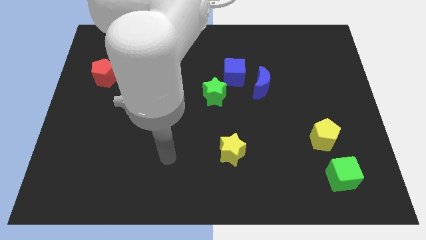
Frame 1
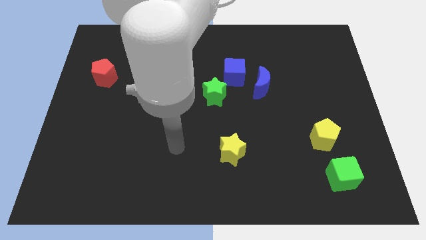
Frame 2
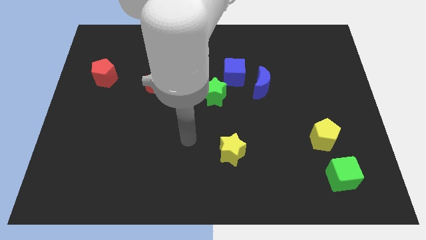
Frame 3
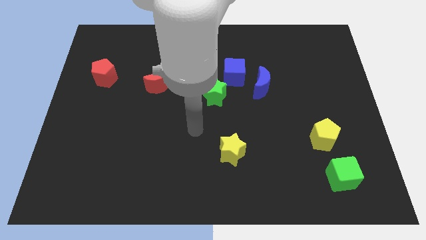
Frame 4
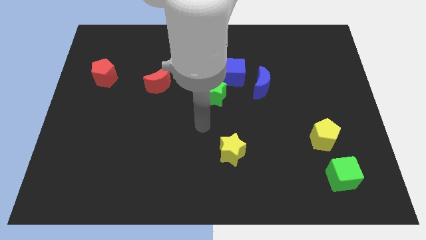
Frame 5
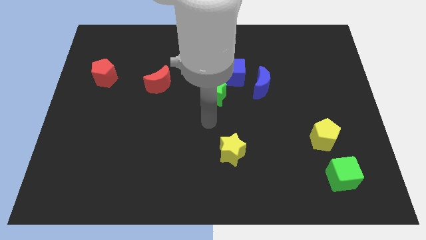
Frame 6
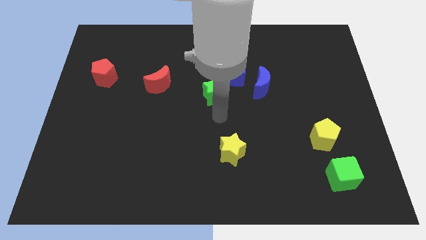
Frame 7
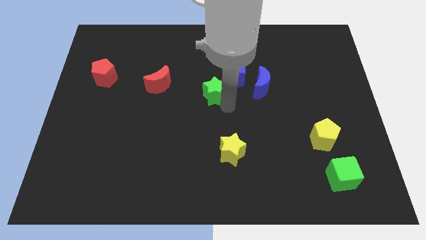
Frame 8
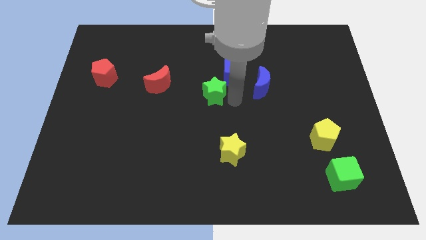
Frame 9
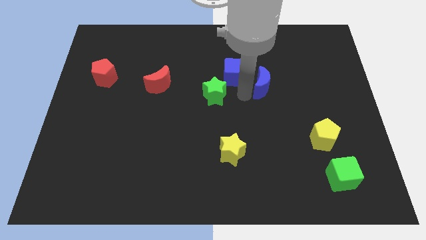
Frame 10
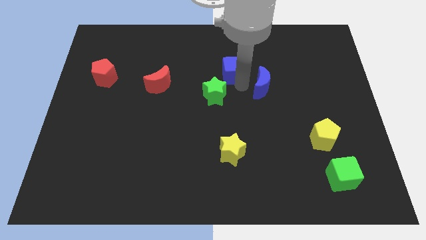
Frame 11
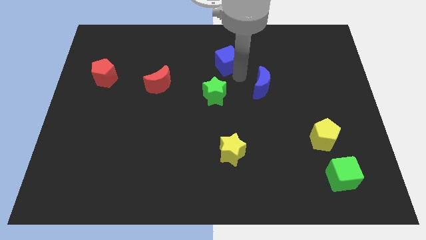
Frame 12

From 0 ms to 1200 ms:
pull the blue moon apart from the blue cube

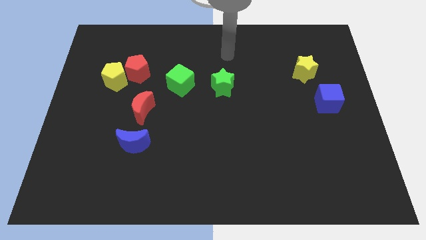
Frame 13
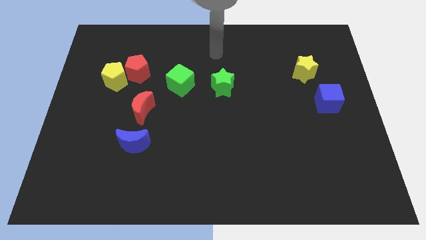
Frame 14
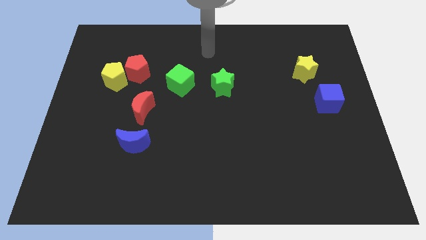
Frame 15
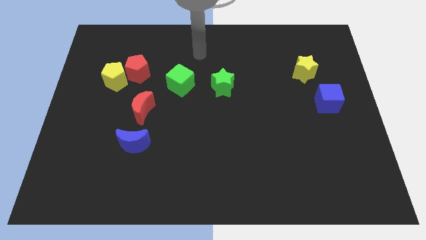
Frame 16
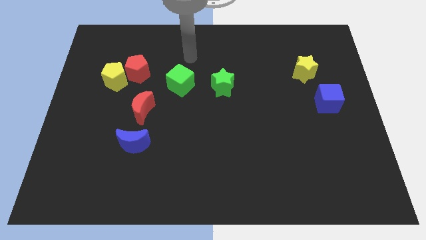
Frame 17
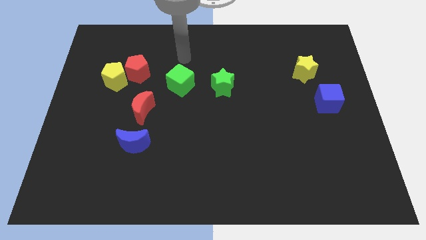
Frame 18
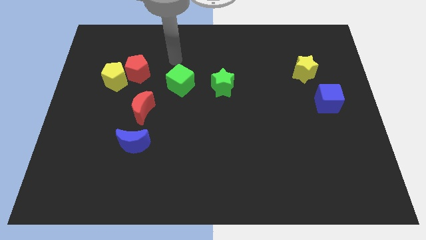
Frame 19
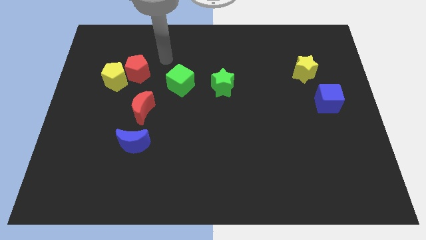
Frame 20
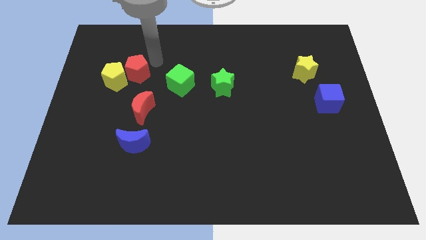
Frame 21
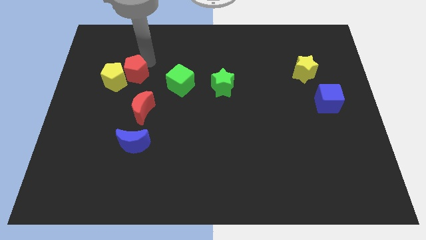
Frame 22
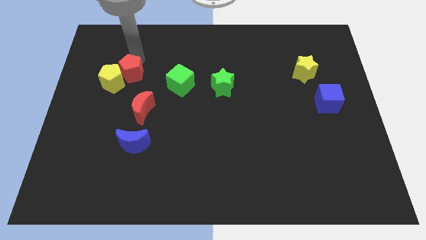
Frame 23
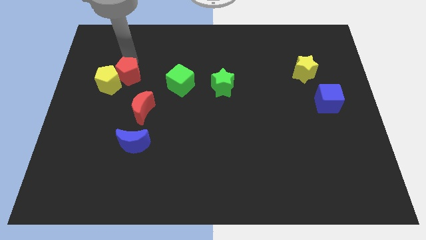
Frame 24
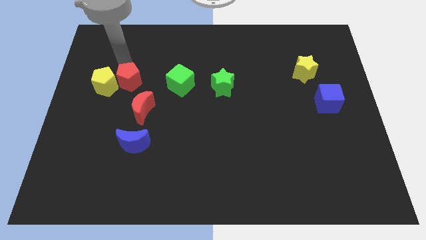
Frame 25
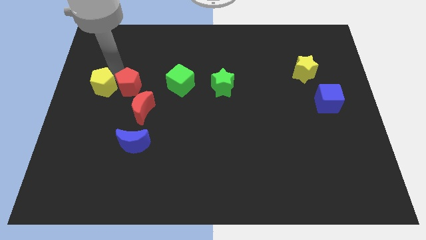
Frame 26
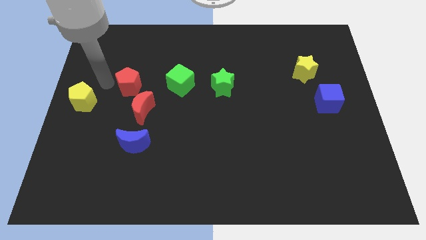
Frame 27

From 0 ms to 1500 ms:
separate the red pentagon from the yellow pentagon

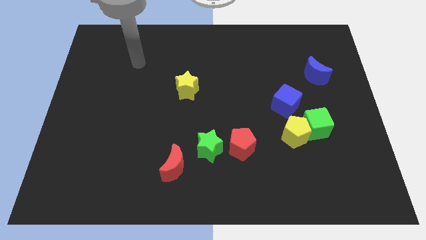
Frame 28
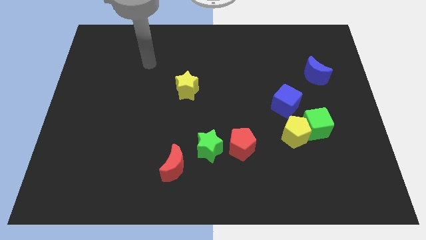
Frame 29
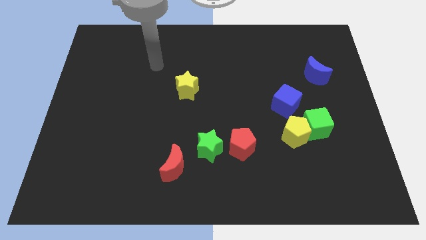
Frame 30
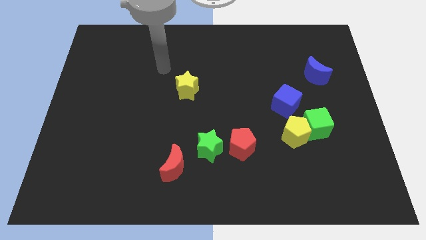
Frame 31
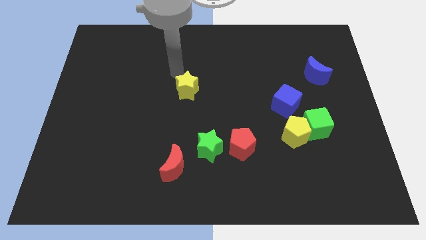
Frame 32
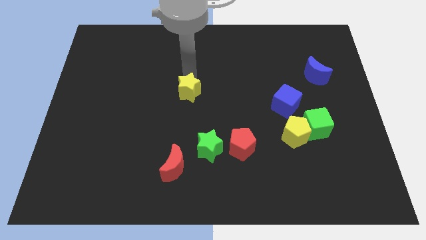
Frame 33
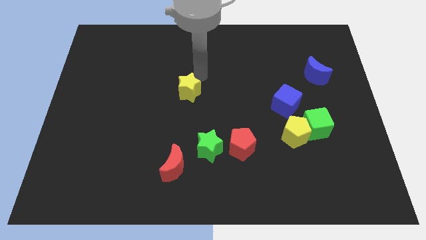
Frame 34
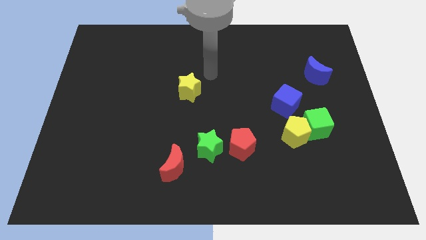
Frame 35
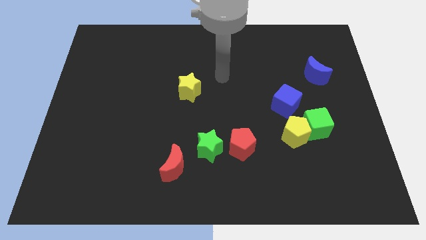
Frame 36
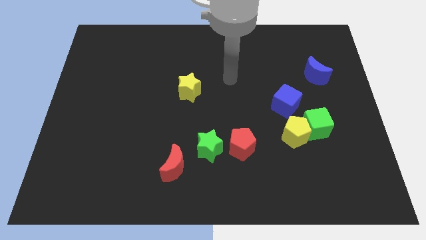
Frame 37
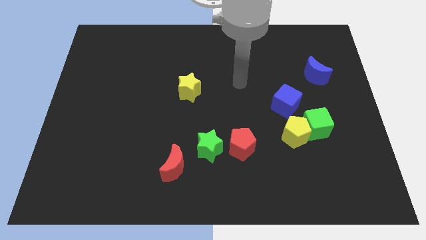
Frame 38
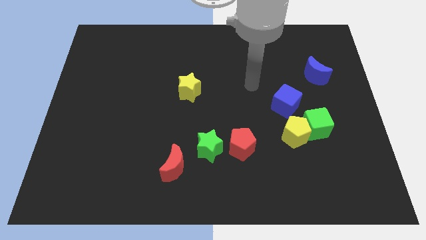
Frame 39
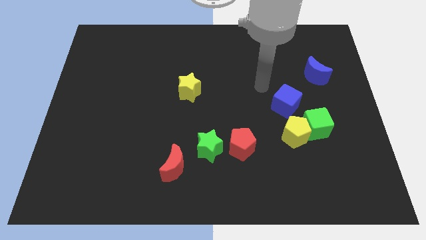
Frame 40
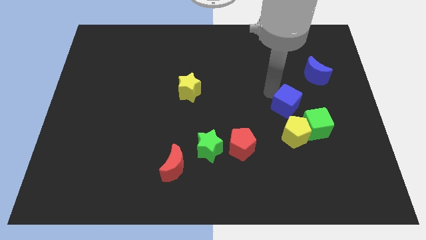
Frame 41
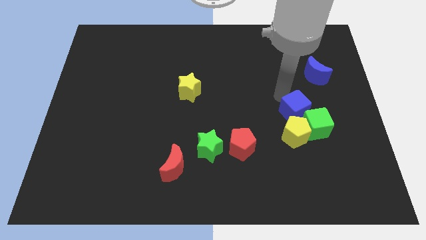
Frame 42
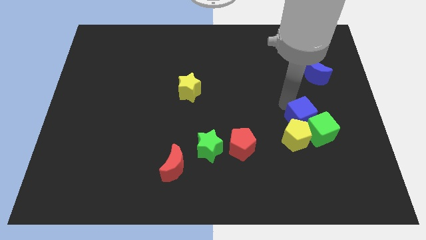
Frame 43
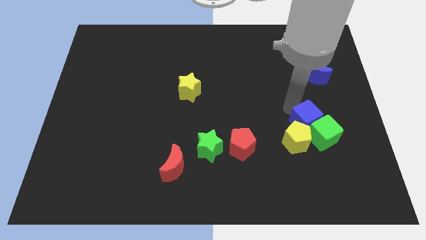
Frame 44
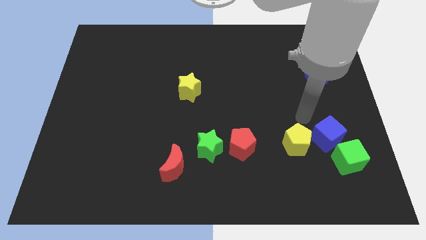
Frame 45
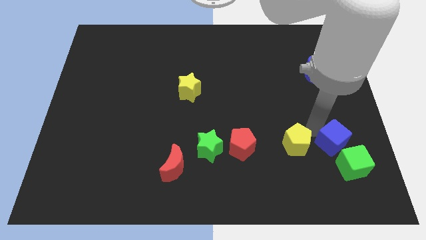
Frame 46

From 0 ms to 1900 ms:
pull the yellow pentagon apart from the green cube and blue cube

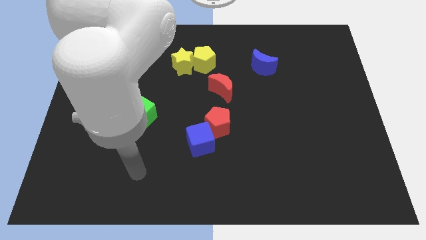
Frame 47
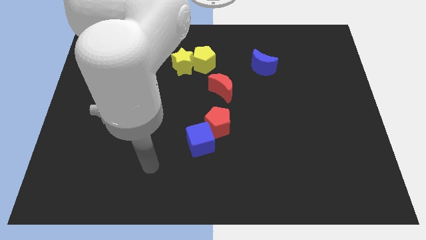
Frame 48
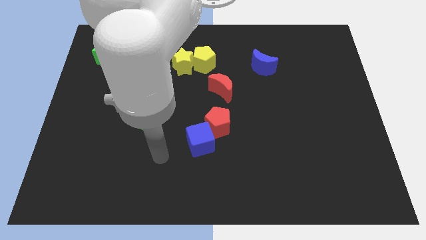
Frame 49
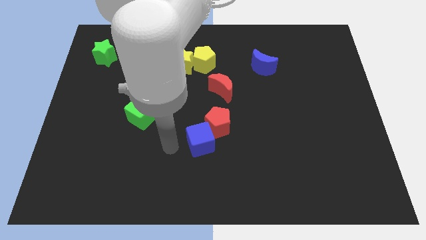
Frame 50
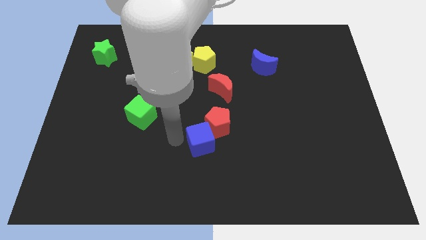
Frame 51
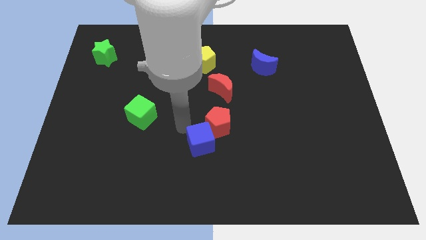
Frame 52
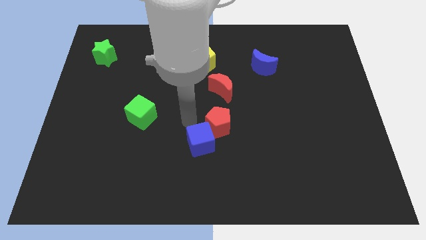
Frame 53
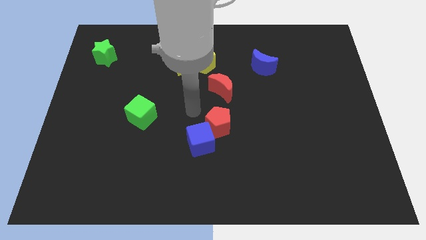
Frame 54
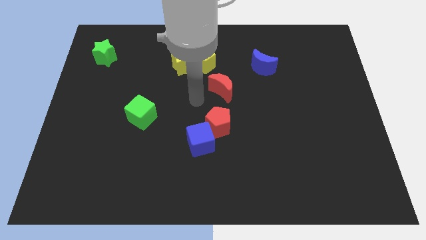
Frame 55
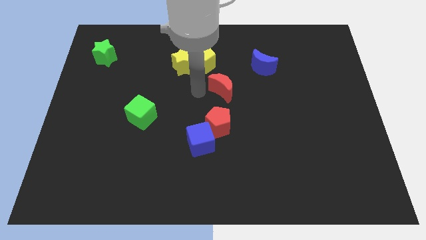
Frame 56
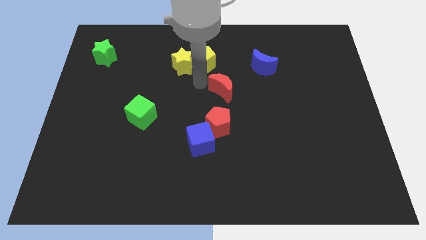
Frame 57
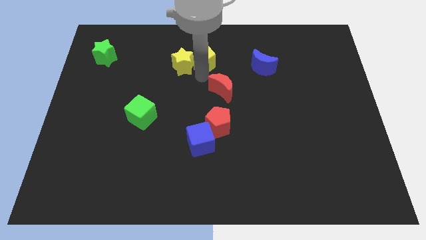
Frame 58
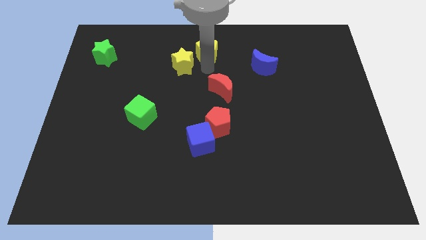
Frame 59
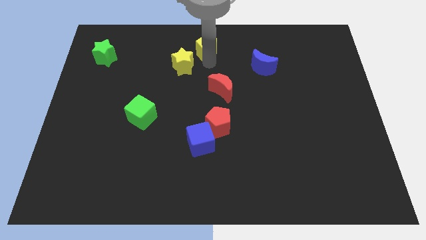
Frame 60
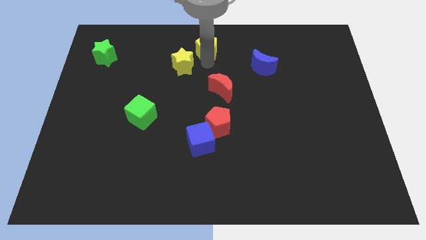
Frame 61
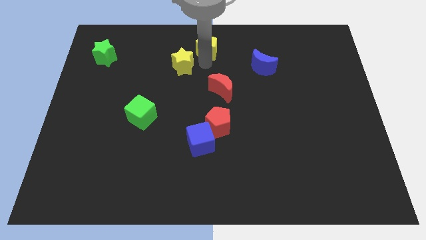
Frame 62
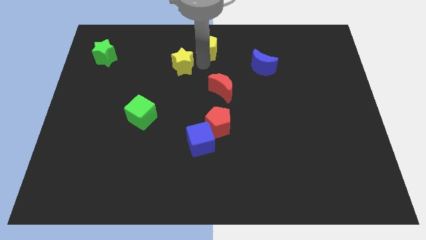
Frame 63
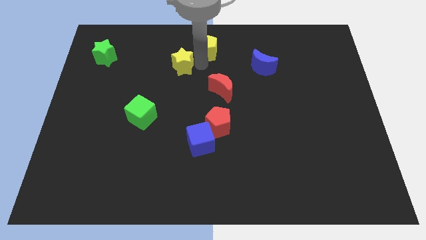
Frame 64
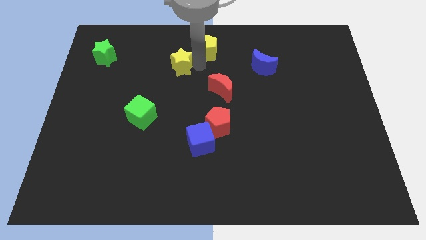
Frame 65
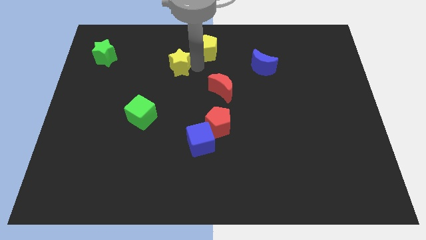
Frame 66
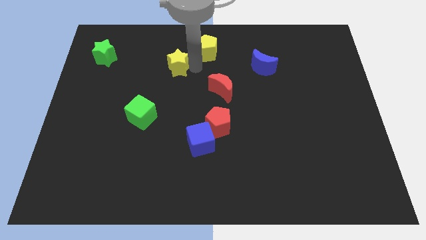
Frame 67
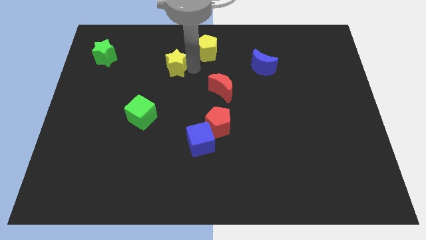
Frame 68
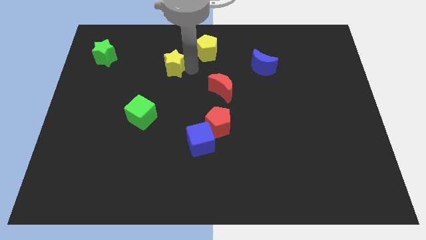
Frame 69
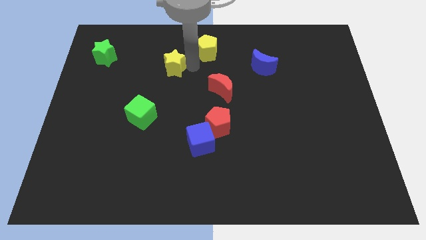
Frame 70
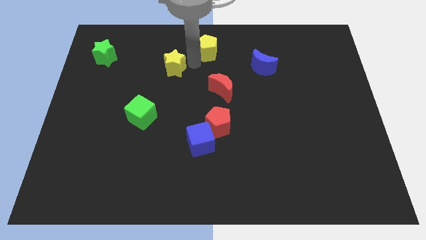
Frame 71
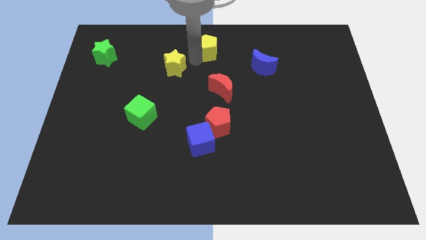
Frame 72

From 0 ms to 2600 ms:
pull the yellow star apart from the yellow pentagon

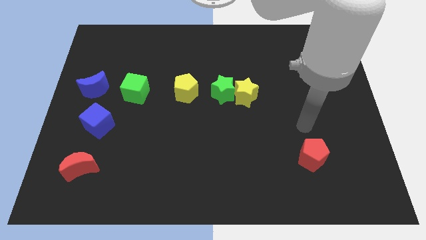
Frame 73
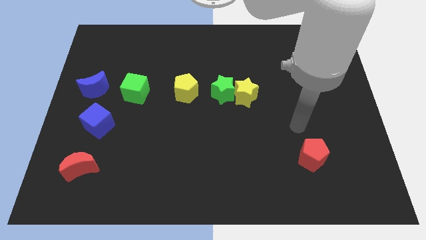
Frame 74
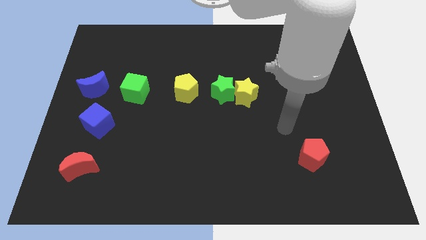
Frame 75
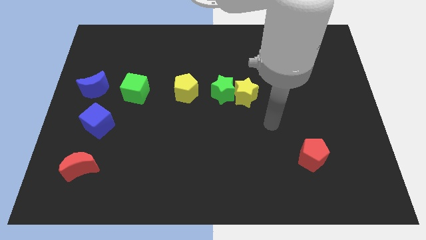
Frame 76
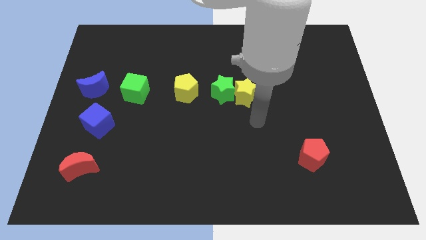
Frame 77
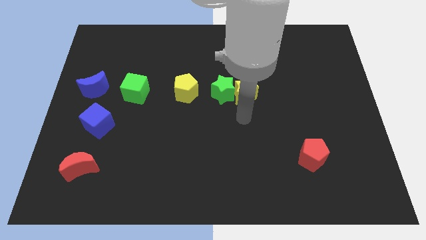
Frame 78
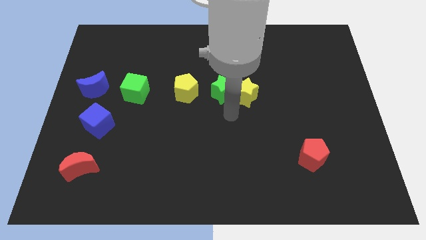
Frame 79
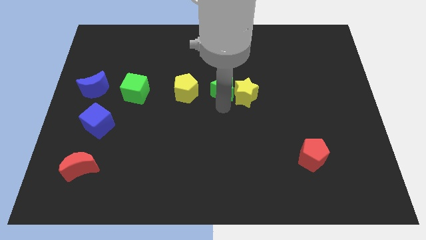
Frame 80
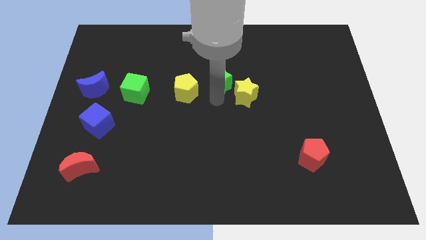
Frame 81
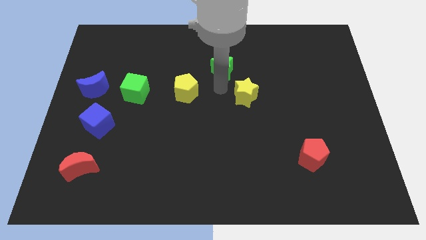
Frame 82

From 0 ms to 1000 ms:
move the yellow star away from the green star

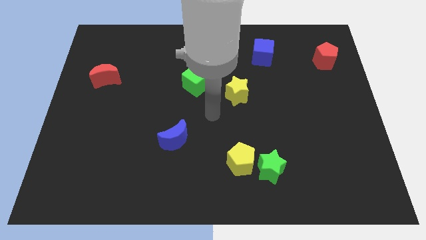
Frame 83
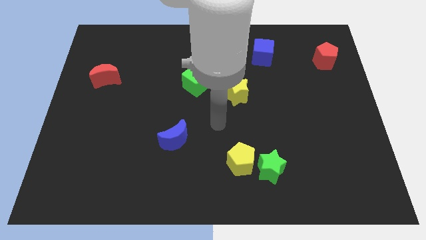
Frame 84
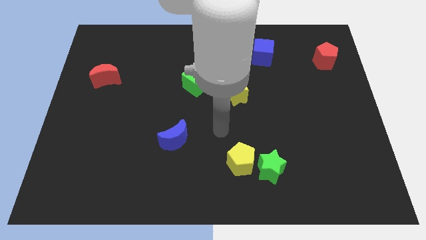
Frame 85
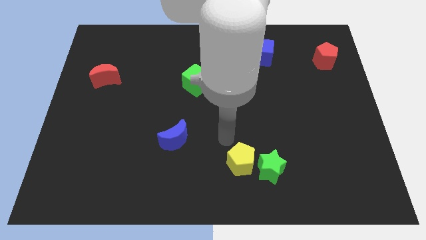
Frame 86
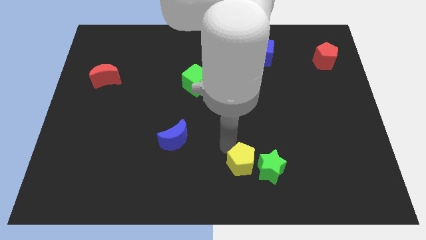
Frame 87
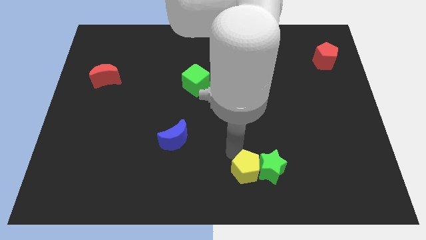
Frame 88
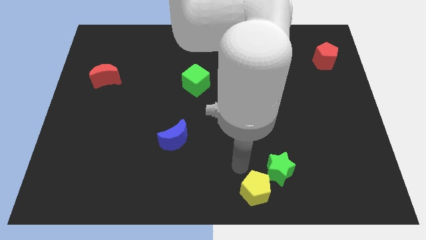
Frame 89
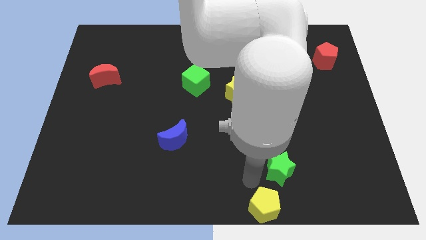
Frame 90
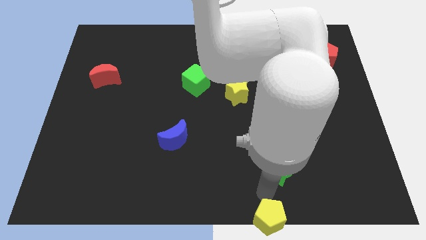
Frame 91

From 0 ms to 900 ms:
separate the green star from the yellow pentagon

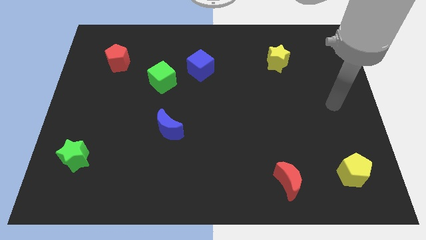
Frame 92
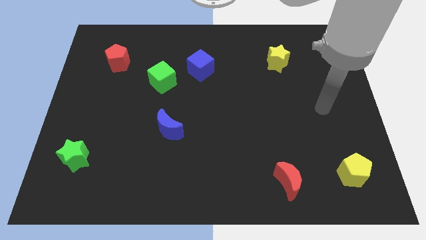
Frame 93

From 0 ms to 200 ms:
pull the blue cube apart from the green cube
